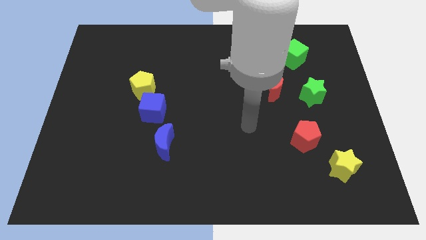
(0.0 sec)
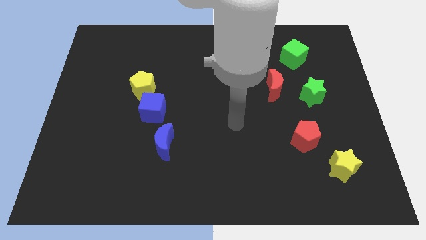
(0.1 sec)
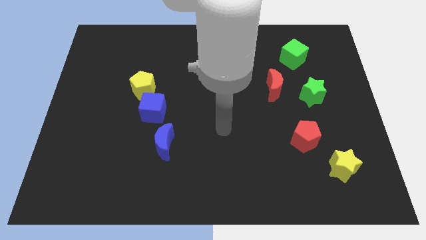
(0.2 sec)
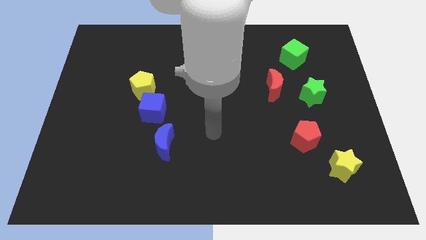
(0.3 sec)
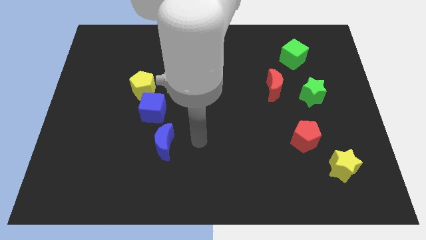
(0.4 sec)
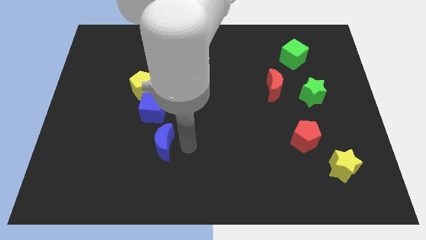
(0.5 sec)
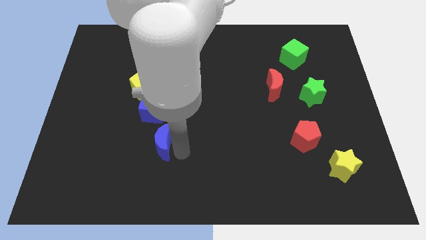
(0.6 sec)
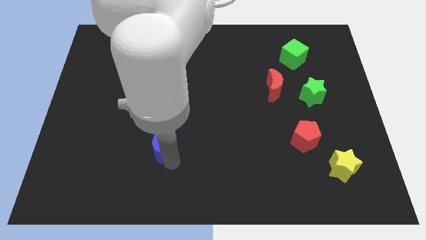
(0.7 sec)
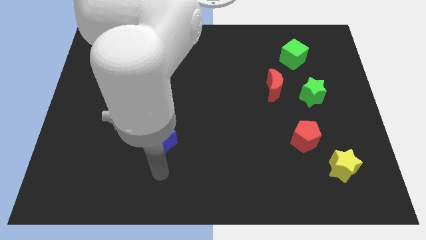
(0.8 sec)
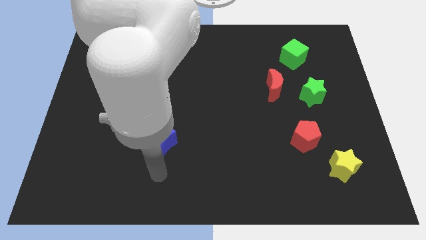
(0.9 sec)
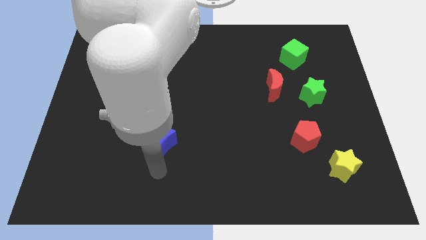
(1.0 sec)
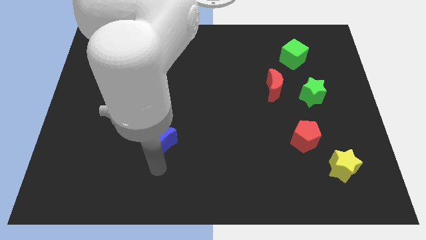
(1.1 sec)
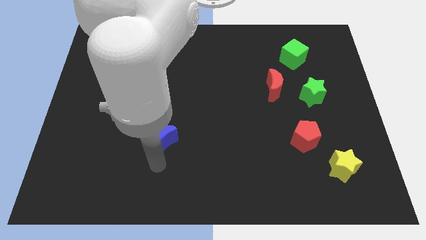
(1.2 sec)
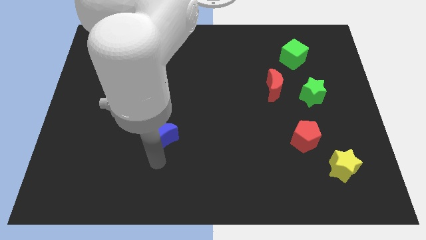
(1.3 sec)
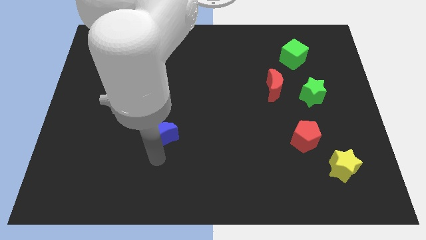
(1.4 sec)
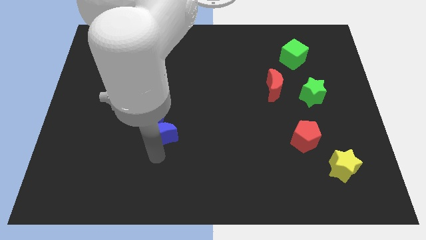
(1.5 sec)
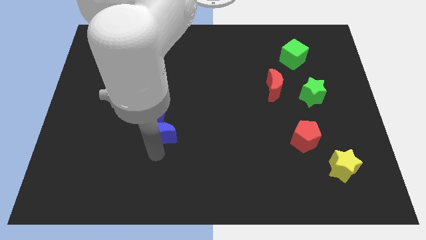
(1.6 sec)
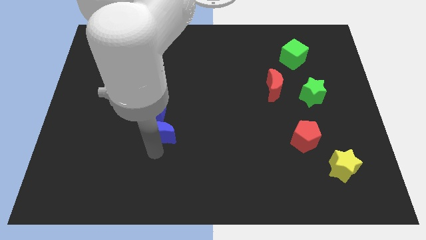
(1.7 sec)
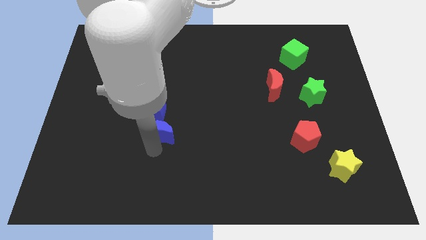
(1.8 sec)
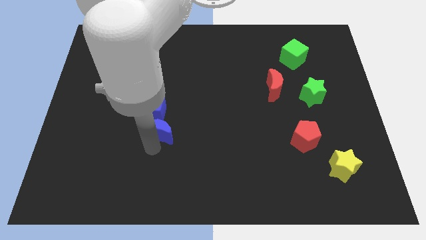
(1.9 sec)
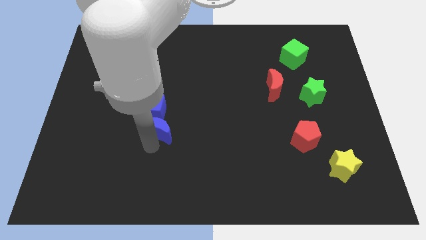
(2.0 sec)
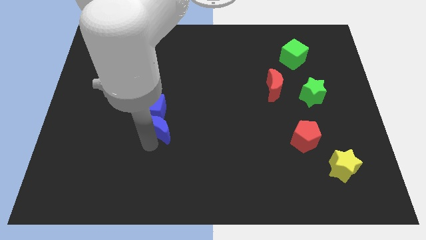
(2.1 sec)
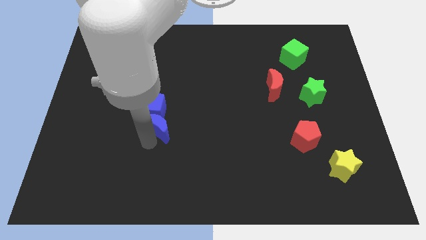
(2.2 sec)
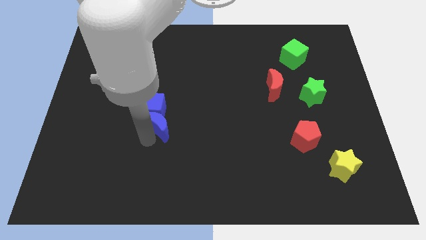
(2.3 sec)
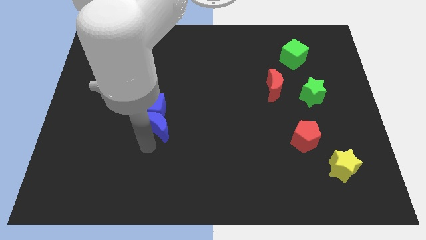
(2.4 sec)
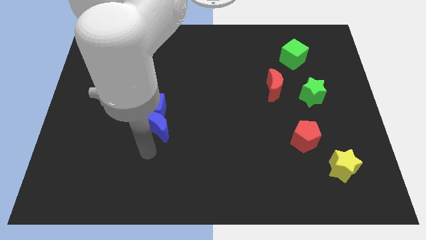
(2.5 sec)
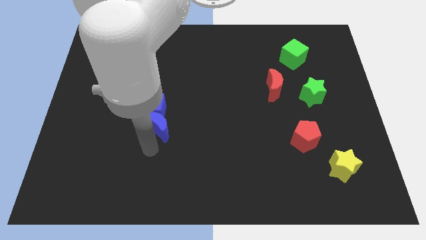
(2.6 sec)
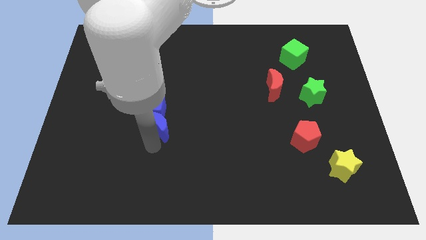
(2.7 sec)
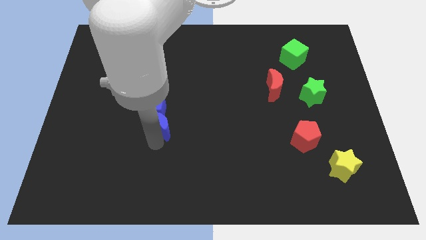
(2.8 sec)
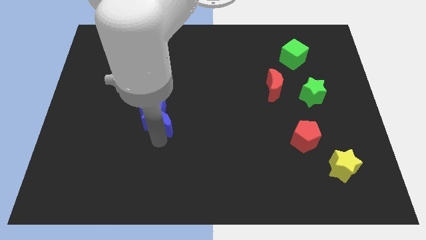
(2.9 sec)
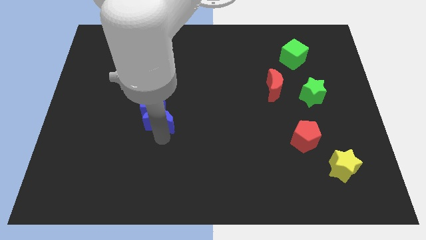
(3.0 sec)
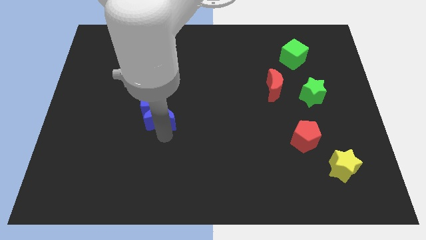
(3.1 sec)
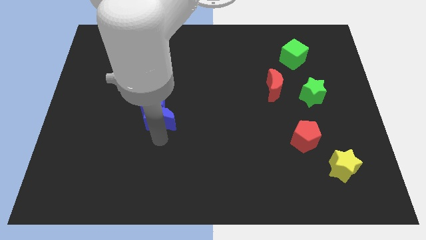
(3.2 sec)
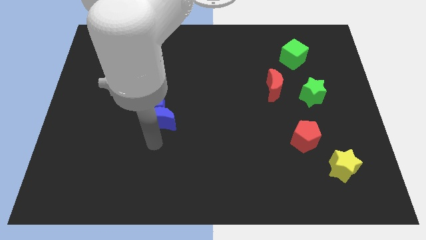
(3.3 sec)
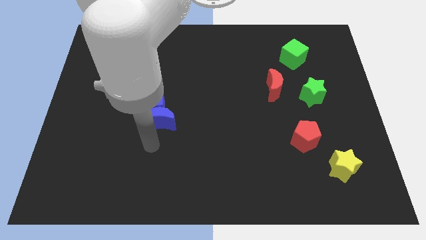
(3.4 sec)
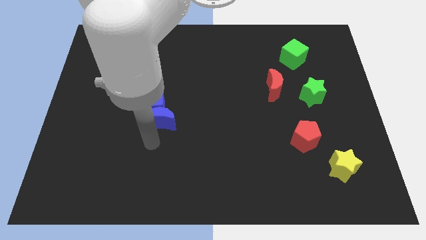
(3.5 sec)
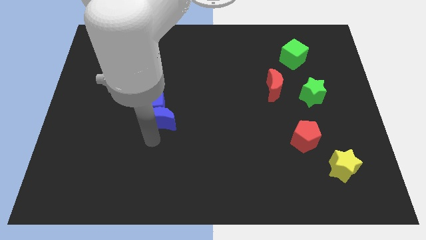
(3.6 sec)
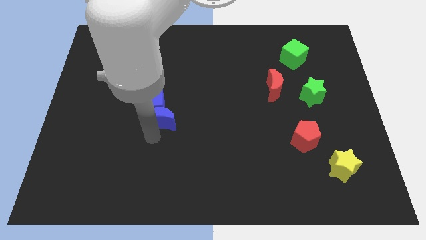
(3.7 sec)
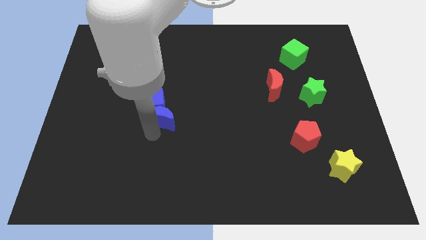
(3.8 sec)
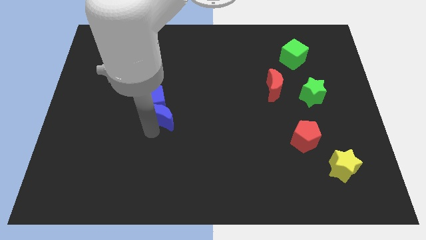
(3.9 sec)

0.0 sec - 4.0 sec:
slightly slide the blue moon upwards

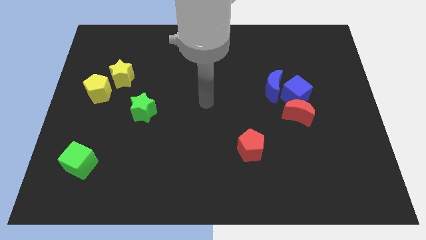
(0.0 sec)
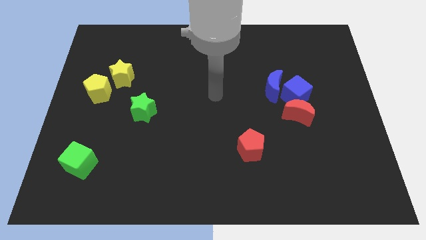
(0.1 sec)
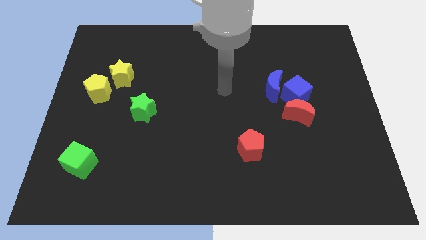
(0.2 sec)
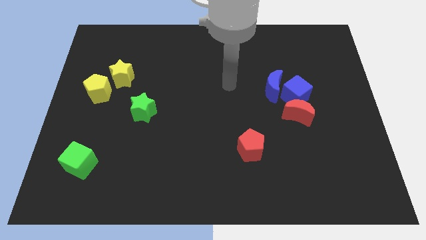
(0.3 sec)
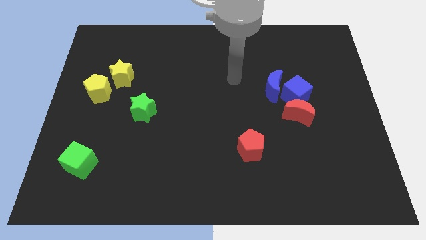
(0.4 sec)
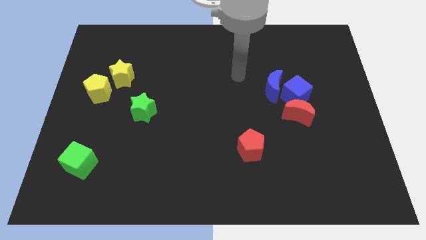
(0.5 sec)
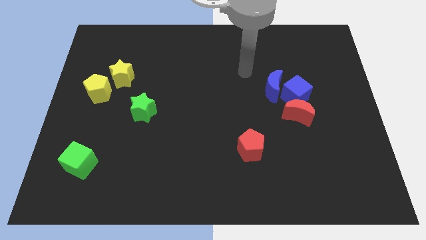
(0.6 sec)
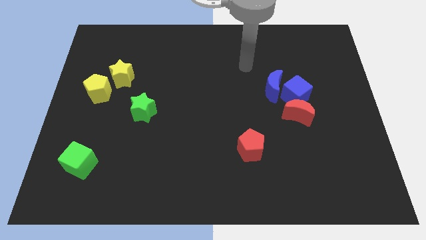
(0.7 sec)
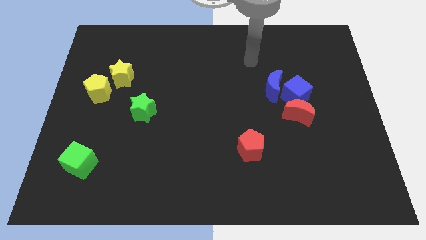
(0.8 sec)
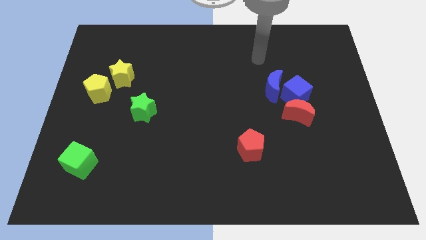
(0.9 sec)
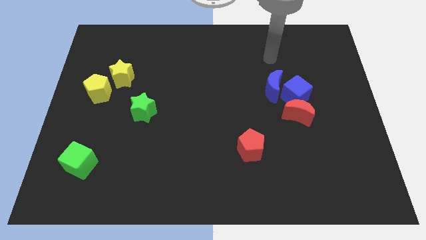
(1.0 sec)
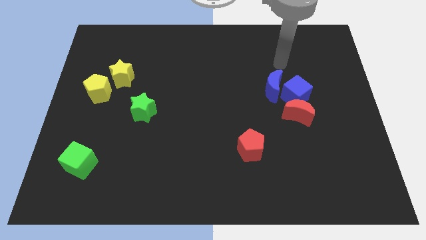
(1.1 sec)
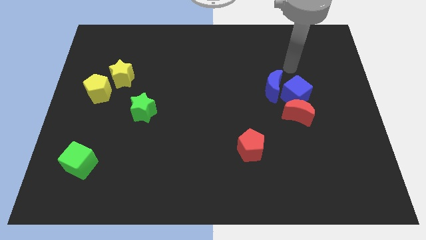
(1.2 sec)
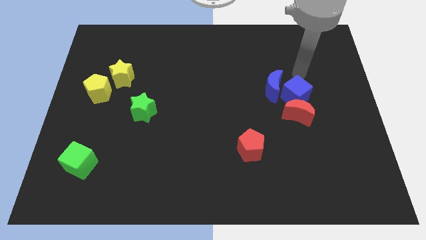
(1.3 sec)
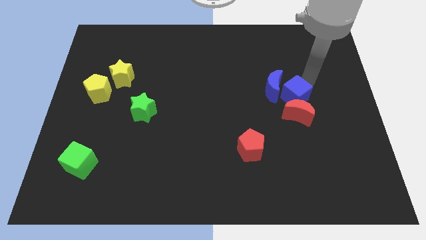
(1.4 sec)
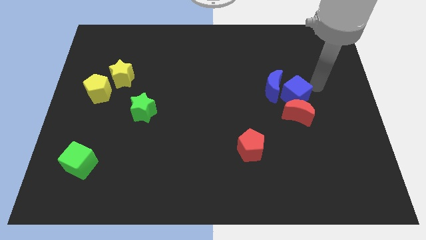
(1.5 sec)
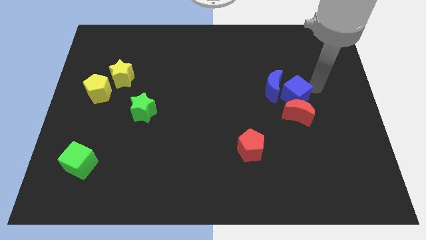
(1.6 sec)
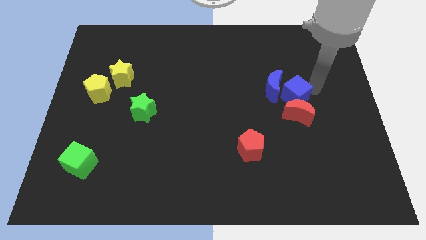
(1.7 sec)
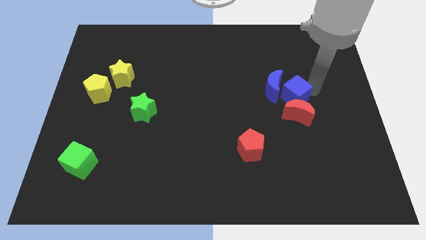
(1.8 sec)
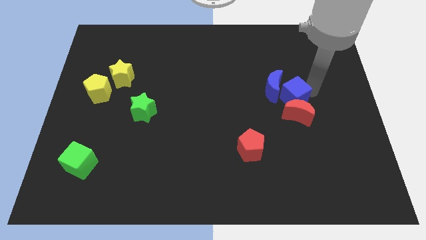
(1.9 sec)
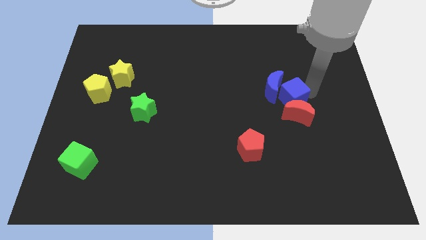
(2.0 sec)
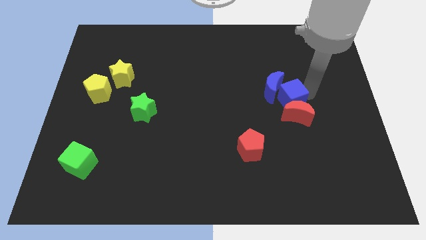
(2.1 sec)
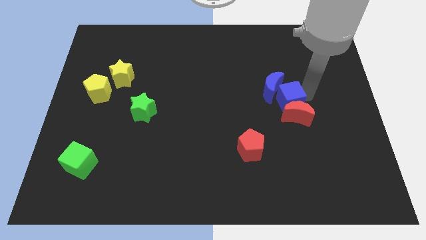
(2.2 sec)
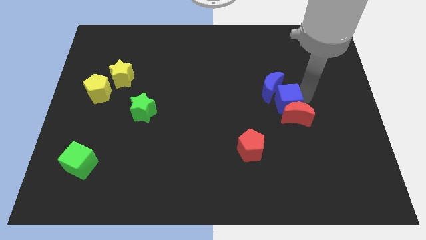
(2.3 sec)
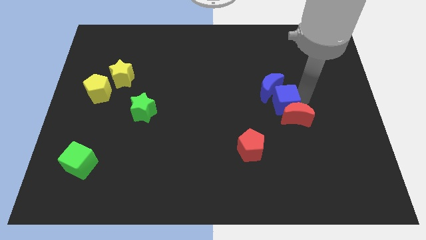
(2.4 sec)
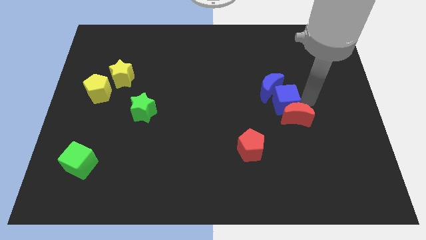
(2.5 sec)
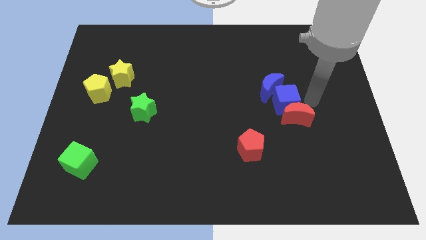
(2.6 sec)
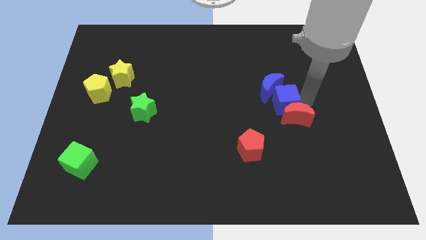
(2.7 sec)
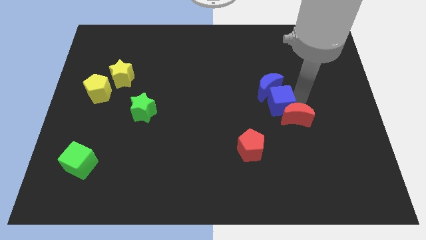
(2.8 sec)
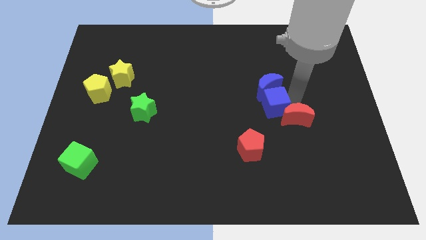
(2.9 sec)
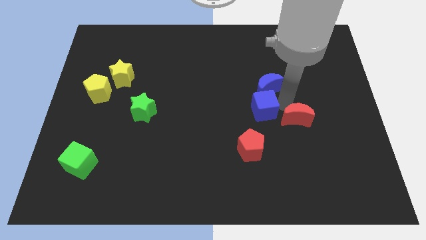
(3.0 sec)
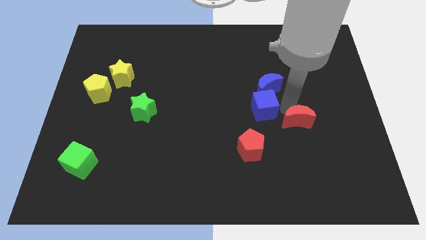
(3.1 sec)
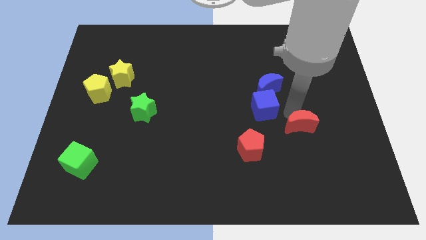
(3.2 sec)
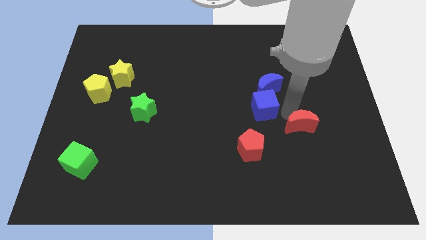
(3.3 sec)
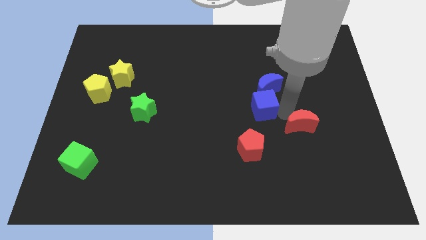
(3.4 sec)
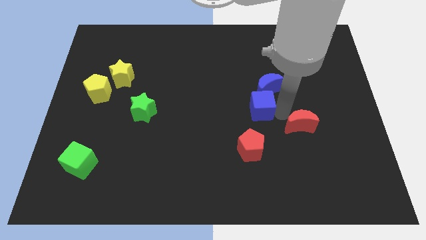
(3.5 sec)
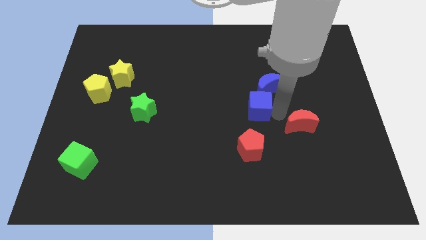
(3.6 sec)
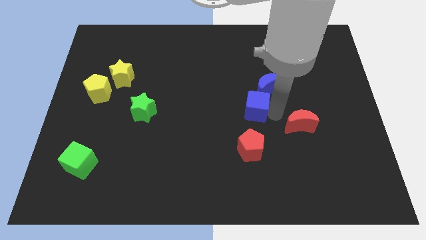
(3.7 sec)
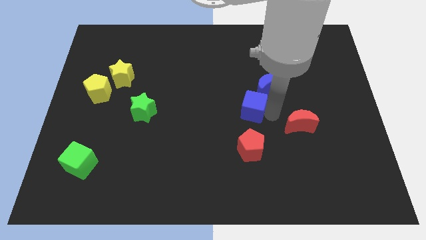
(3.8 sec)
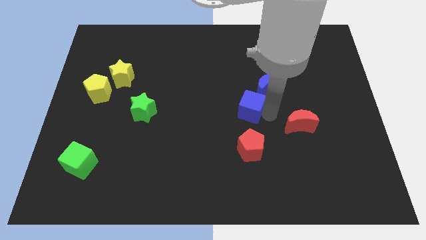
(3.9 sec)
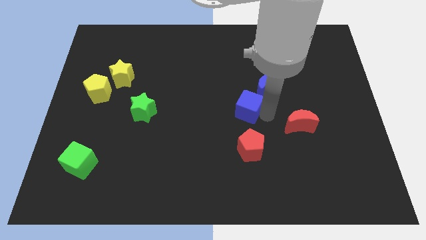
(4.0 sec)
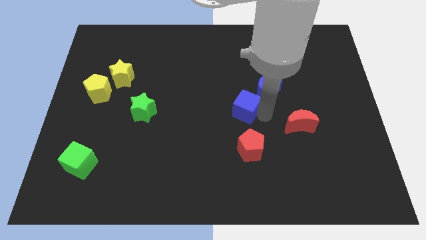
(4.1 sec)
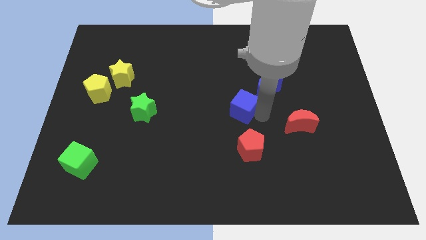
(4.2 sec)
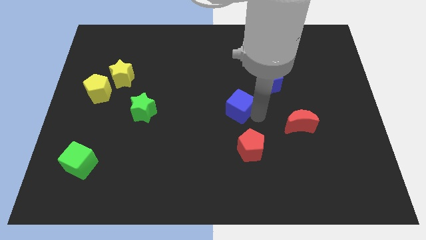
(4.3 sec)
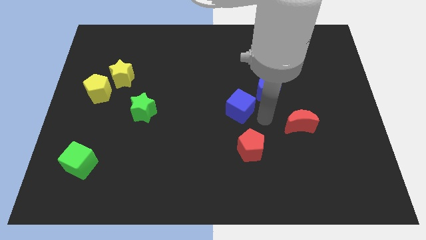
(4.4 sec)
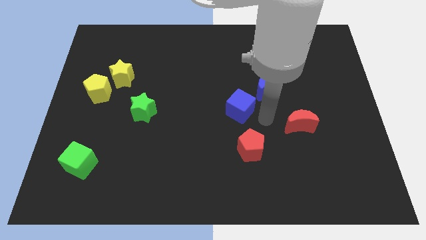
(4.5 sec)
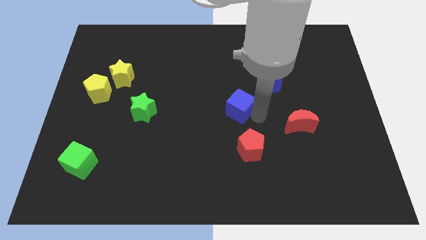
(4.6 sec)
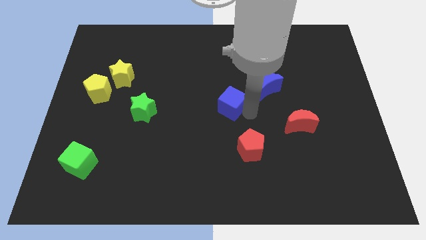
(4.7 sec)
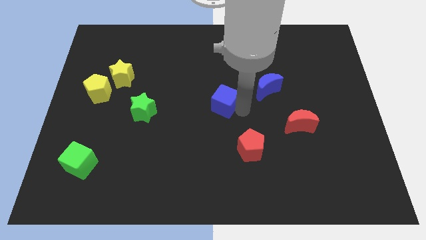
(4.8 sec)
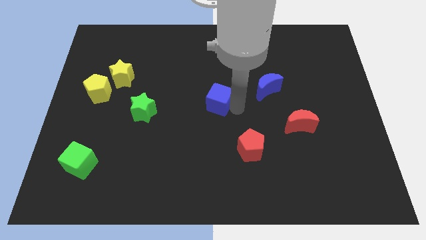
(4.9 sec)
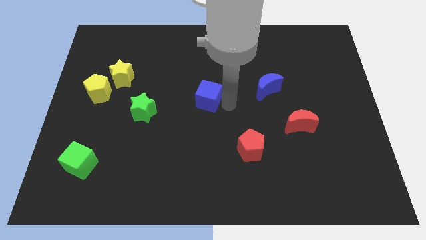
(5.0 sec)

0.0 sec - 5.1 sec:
push the blue cube to the left
